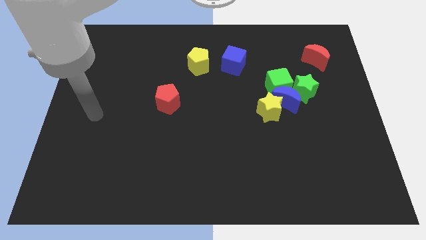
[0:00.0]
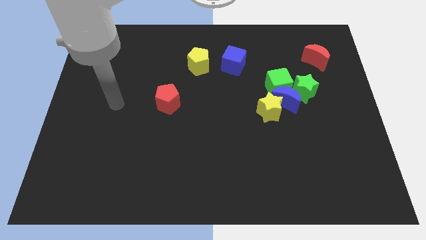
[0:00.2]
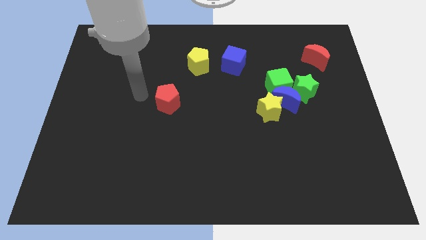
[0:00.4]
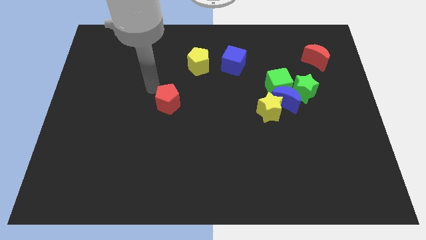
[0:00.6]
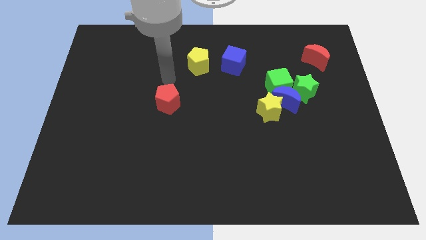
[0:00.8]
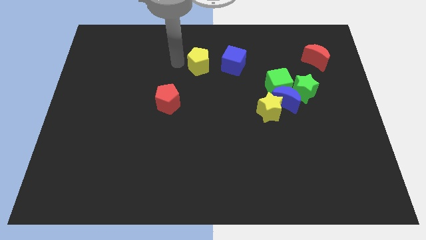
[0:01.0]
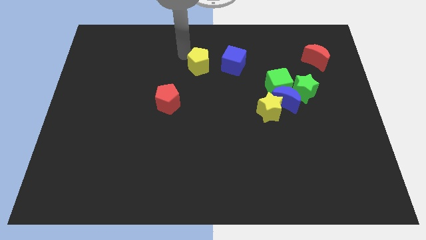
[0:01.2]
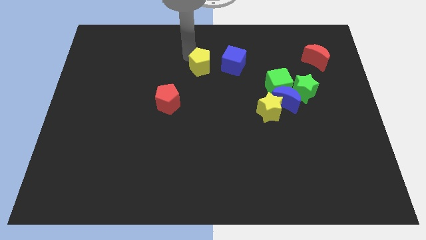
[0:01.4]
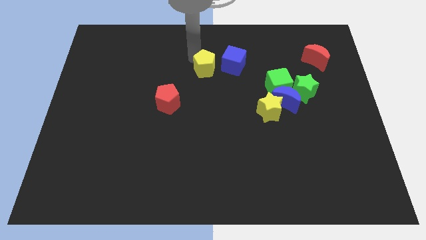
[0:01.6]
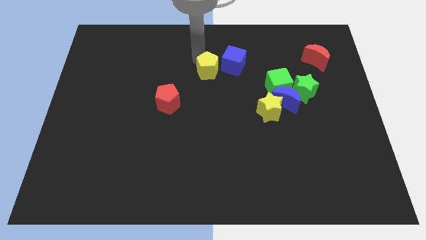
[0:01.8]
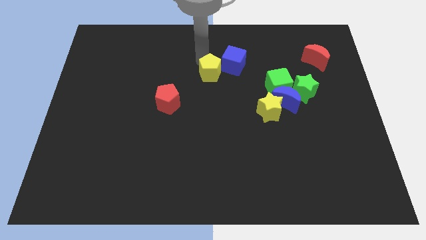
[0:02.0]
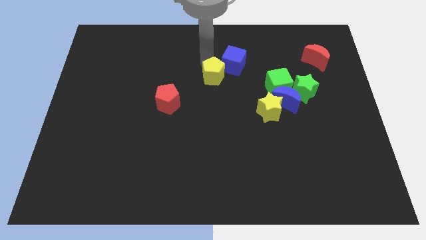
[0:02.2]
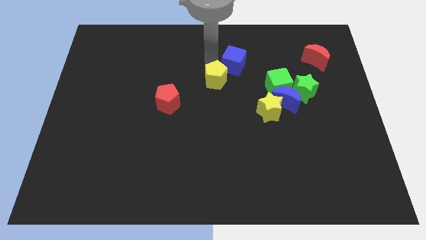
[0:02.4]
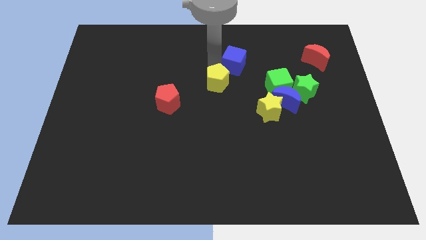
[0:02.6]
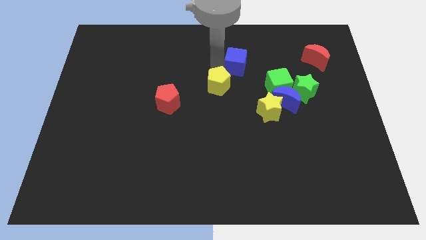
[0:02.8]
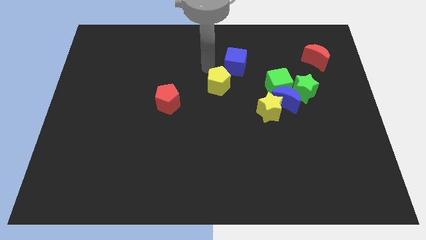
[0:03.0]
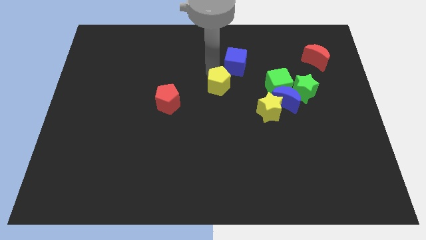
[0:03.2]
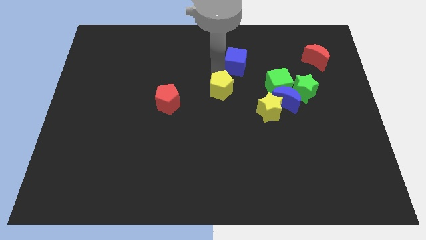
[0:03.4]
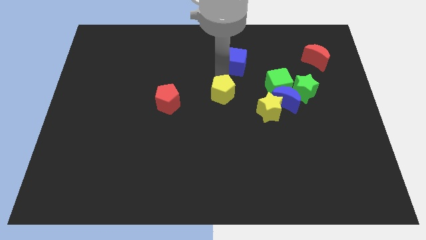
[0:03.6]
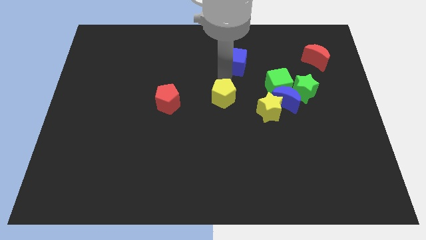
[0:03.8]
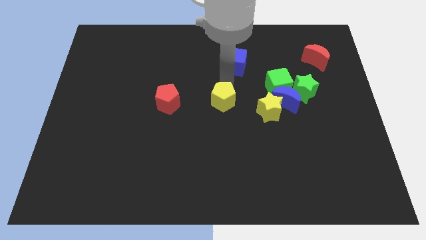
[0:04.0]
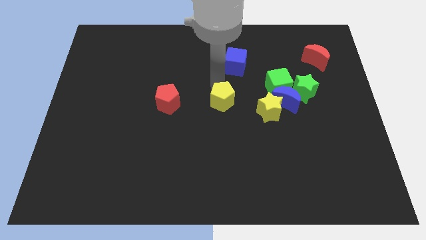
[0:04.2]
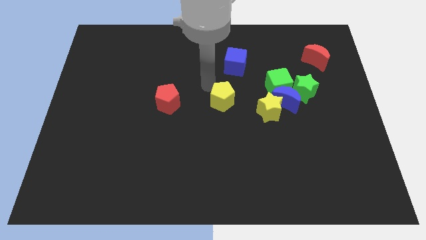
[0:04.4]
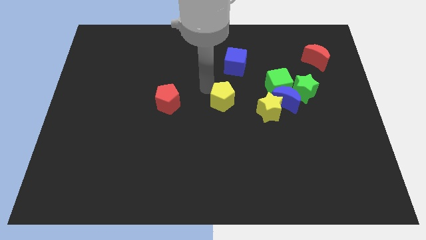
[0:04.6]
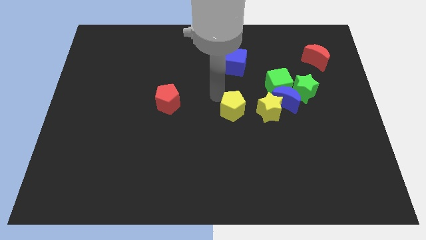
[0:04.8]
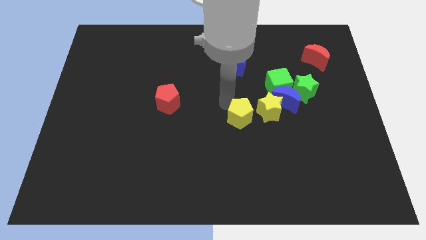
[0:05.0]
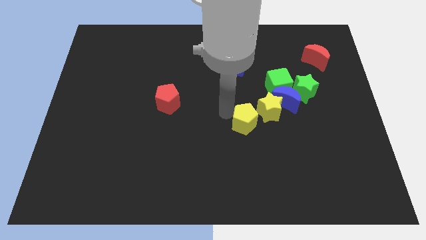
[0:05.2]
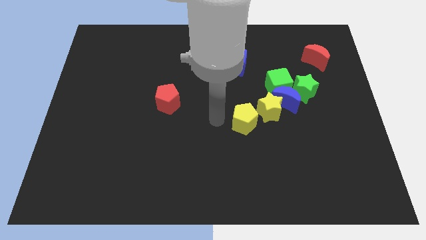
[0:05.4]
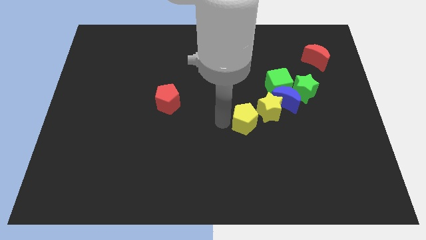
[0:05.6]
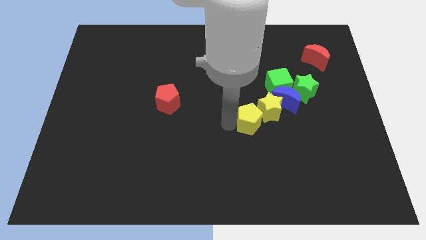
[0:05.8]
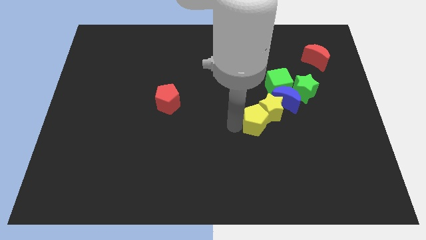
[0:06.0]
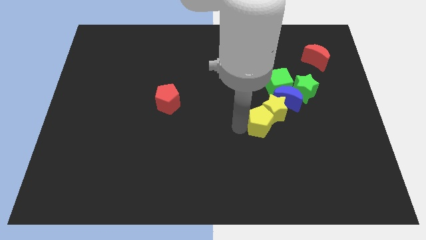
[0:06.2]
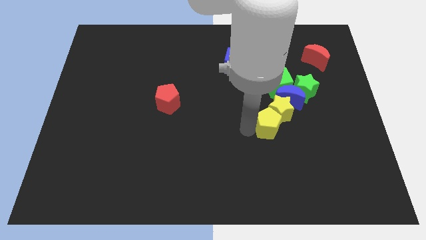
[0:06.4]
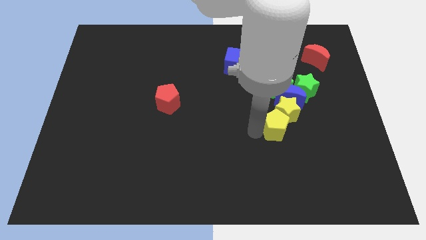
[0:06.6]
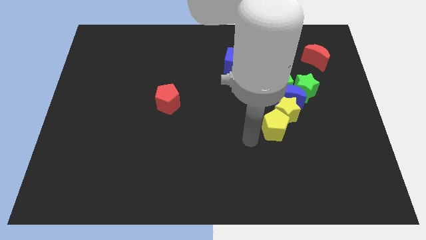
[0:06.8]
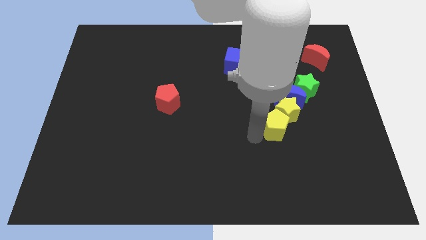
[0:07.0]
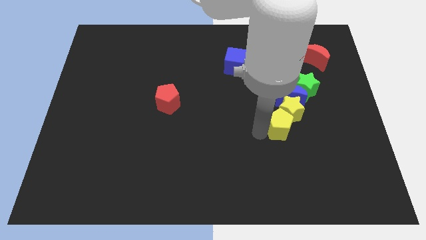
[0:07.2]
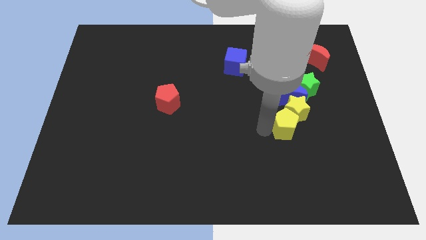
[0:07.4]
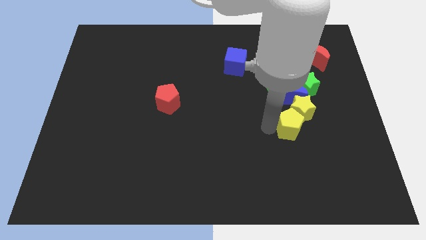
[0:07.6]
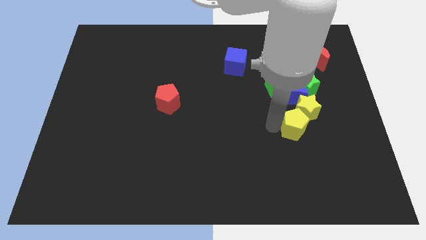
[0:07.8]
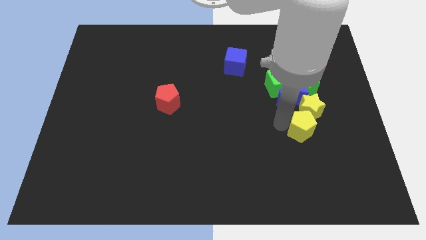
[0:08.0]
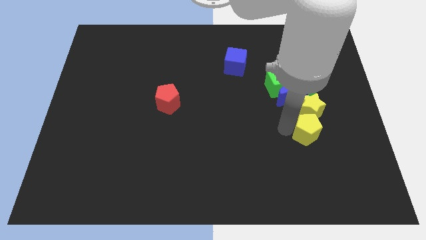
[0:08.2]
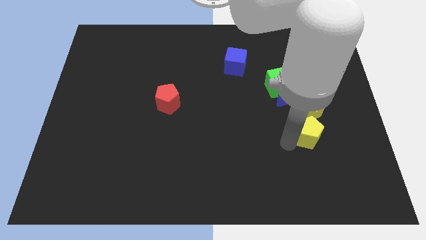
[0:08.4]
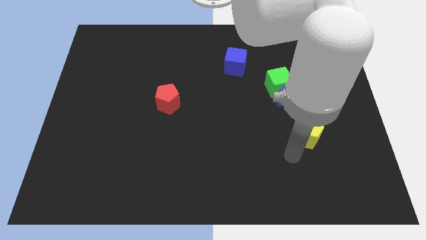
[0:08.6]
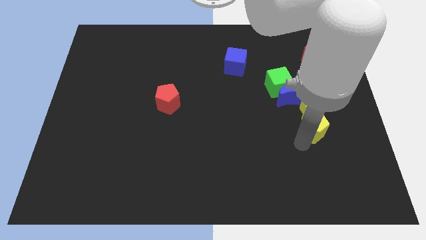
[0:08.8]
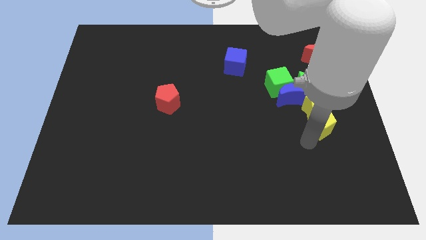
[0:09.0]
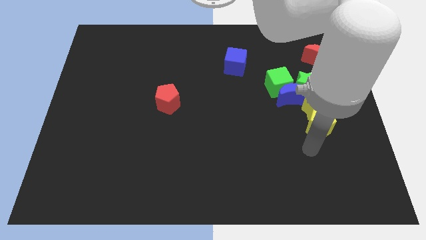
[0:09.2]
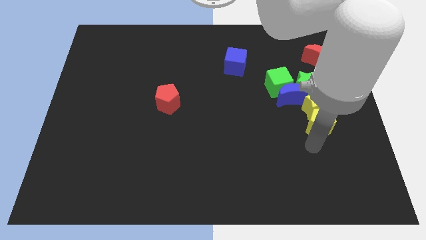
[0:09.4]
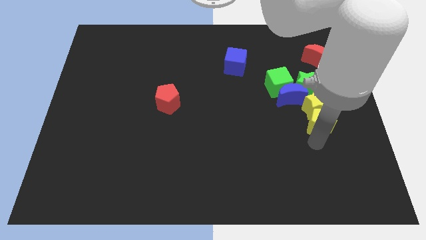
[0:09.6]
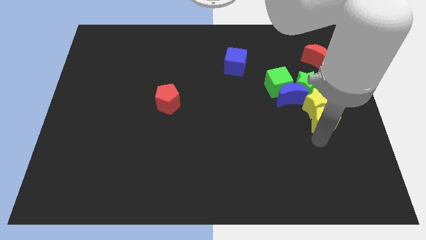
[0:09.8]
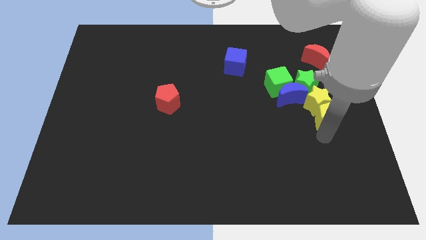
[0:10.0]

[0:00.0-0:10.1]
push the yellow pentagon to the right side

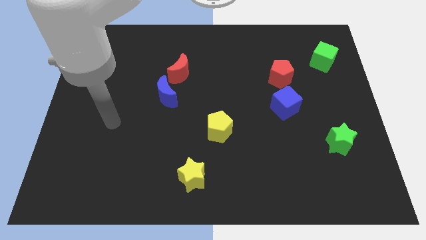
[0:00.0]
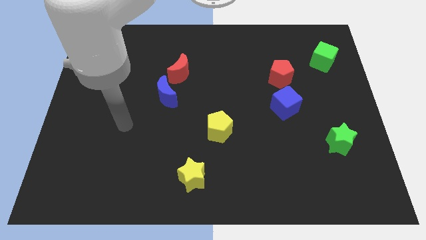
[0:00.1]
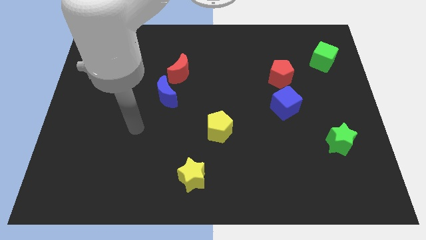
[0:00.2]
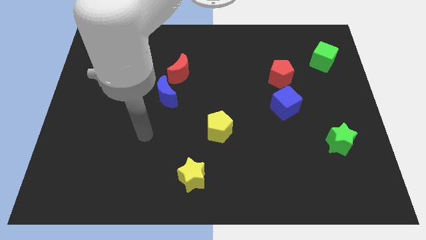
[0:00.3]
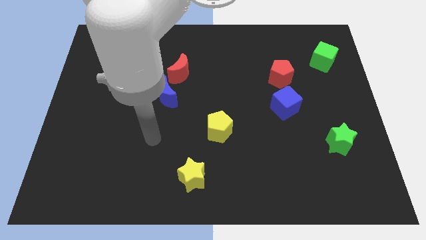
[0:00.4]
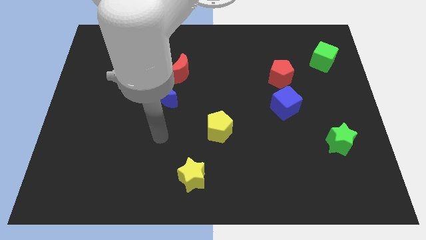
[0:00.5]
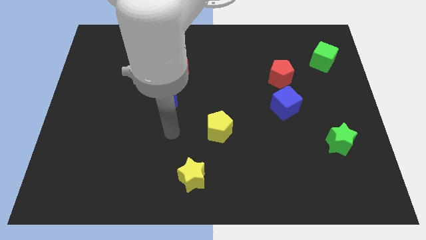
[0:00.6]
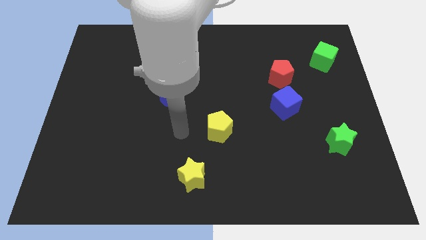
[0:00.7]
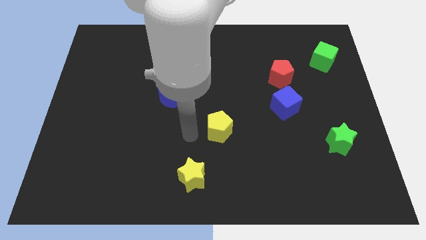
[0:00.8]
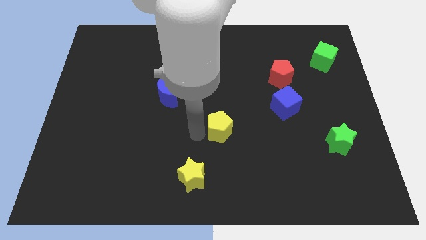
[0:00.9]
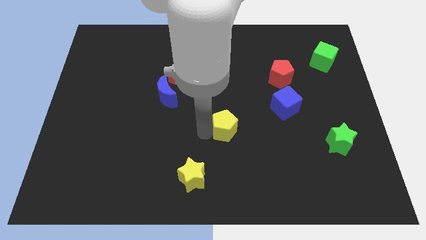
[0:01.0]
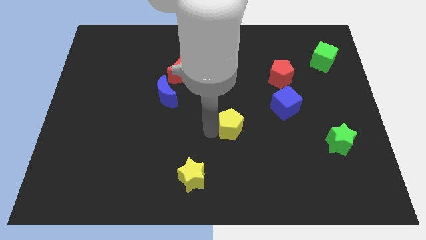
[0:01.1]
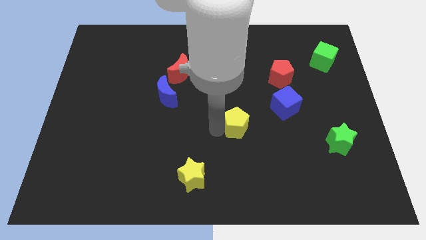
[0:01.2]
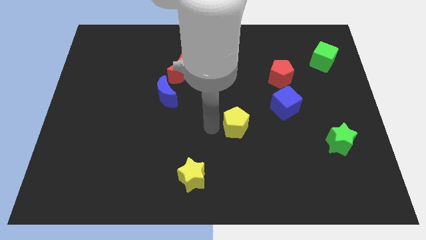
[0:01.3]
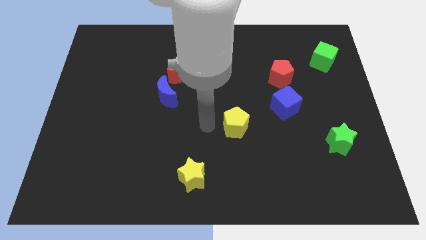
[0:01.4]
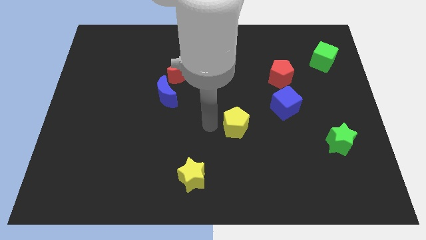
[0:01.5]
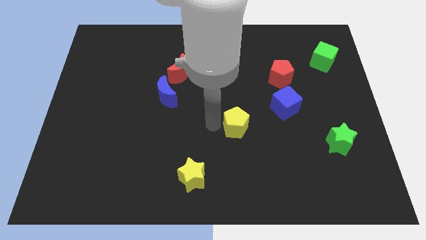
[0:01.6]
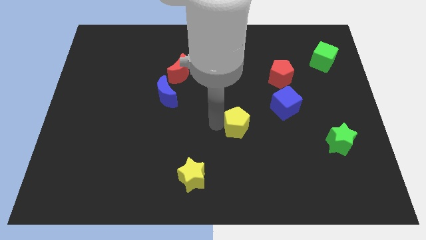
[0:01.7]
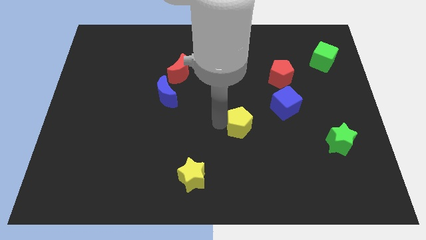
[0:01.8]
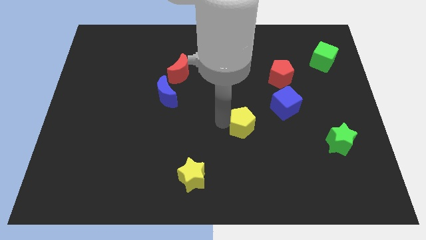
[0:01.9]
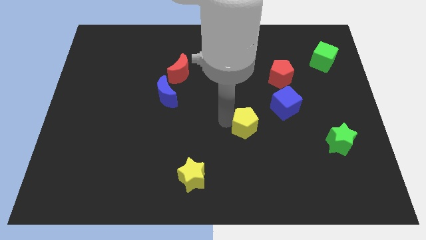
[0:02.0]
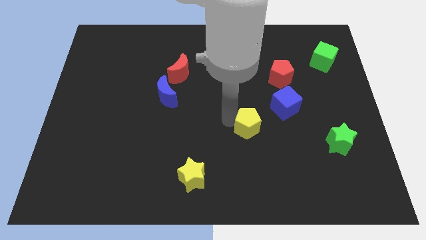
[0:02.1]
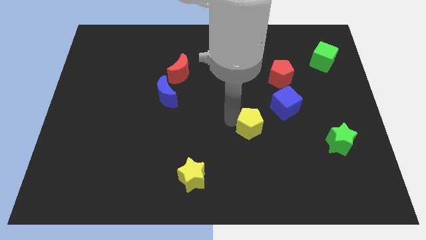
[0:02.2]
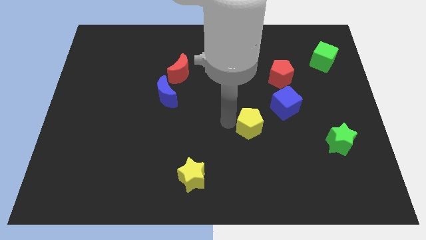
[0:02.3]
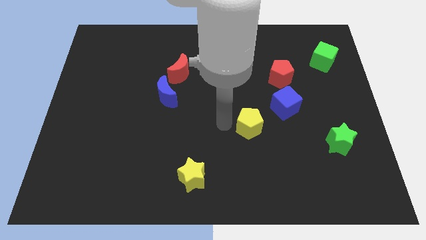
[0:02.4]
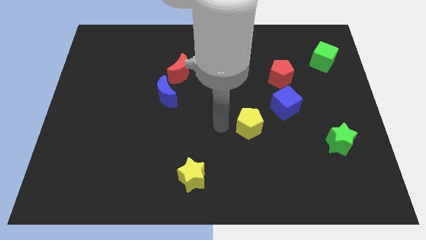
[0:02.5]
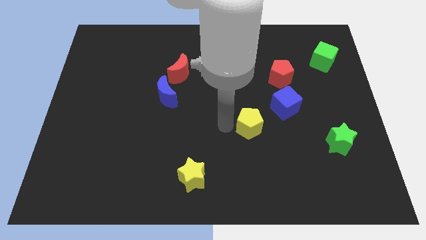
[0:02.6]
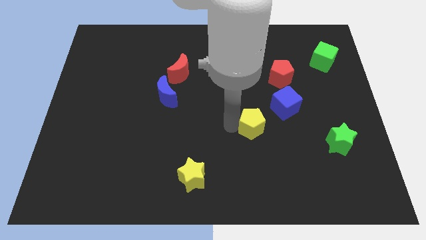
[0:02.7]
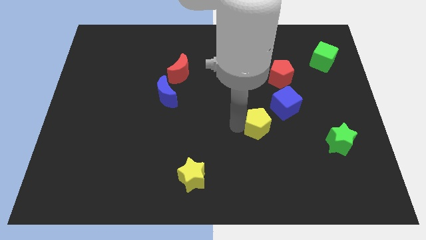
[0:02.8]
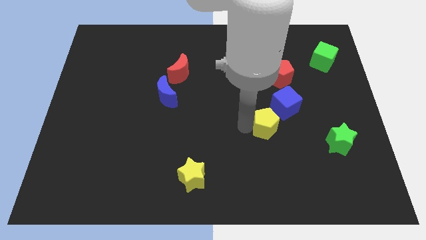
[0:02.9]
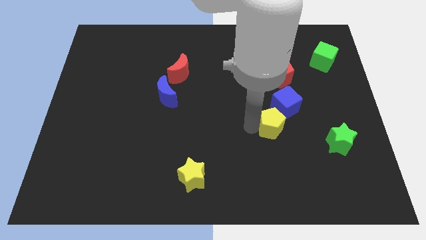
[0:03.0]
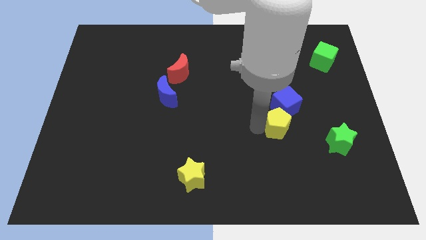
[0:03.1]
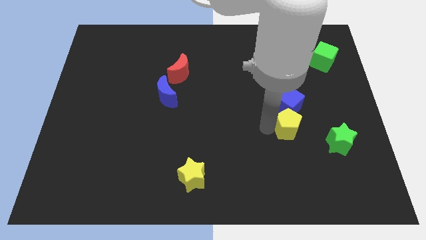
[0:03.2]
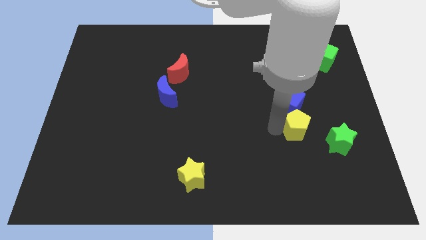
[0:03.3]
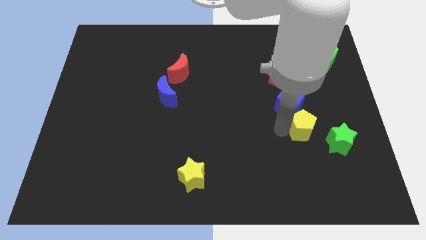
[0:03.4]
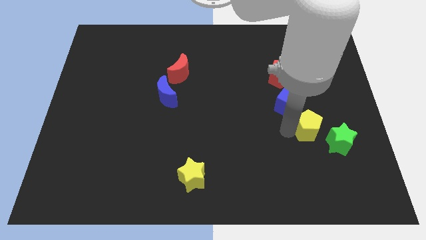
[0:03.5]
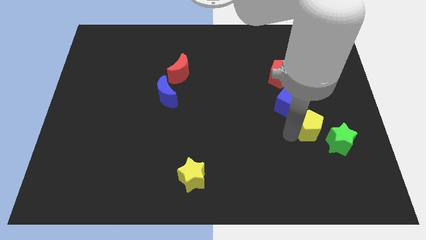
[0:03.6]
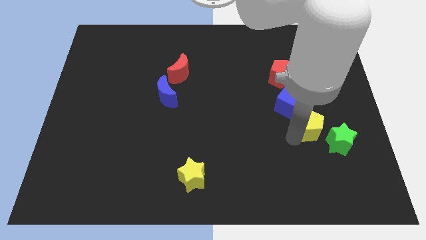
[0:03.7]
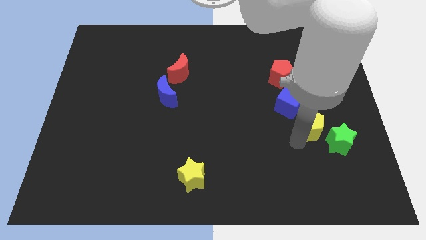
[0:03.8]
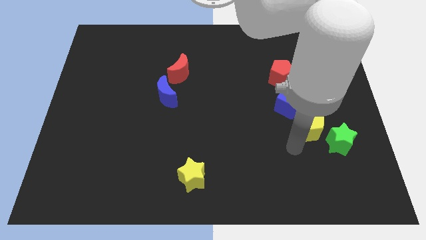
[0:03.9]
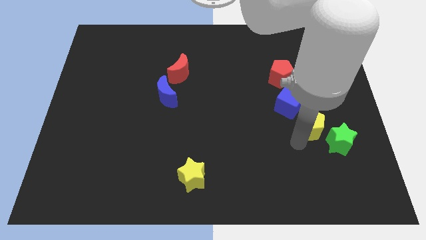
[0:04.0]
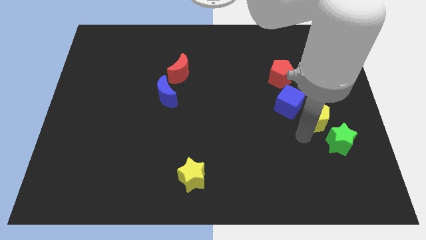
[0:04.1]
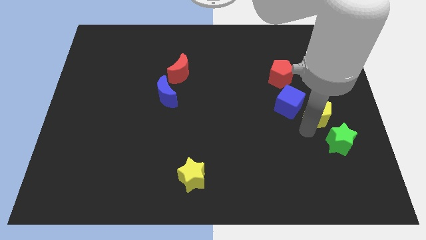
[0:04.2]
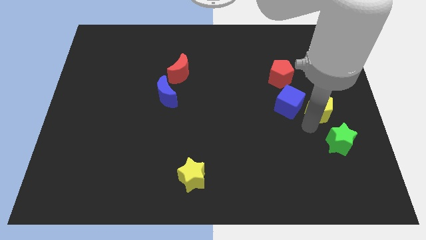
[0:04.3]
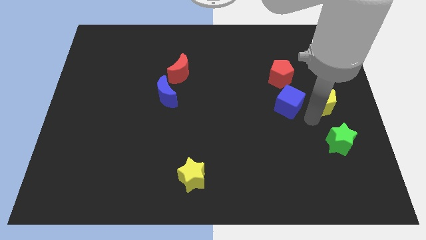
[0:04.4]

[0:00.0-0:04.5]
put the yellow pentagon to the right side
